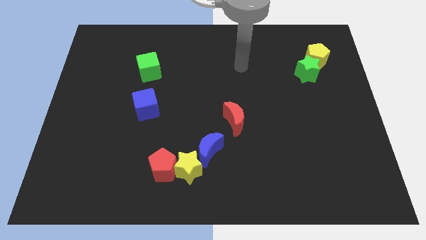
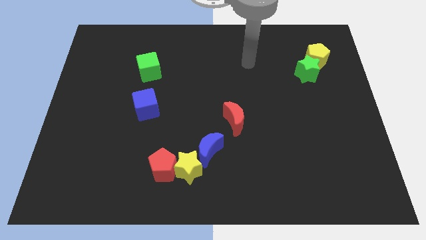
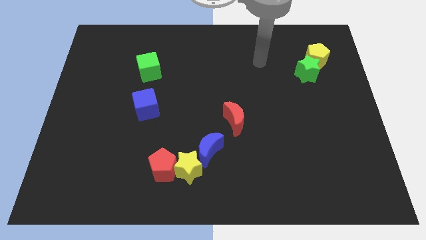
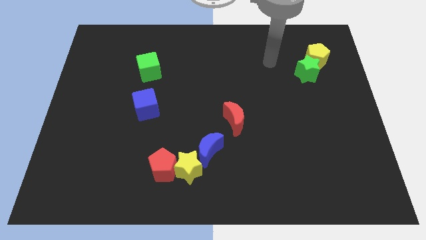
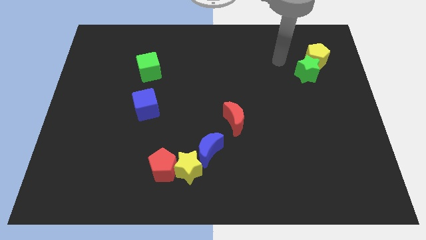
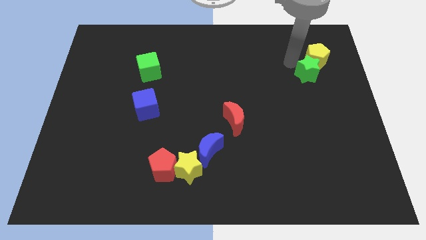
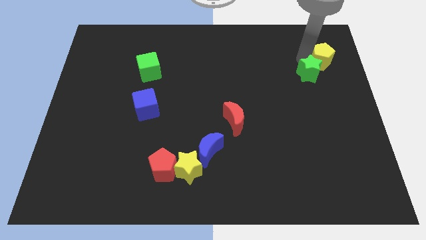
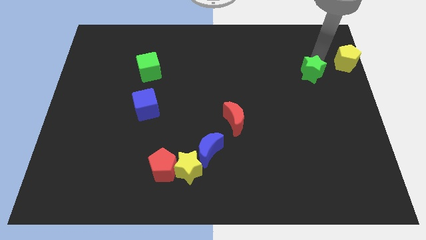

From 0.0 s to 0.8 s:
separate the green star from the yellow pentagon

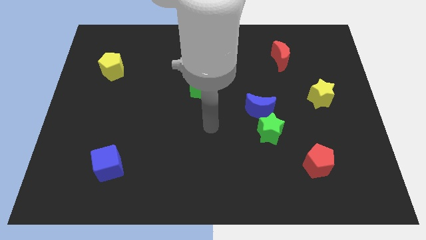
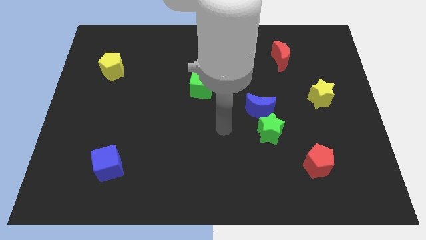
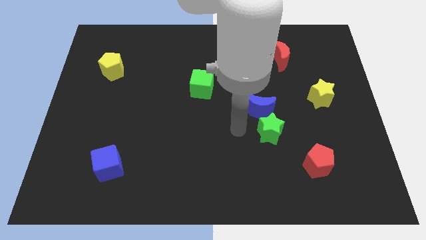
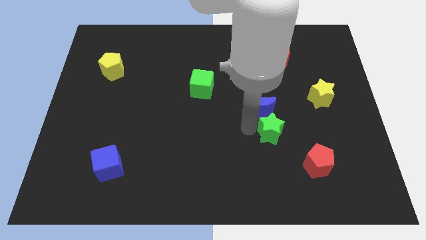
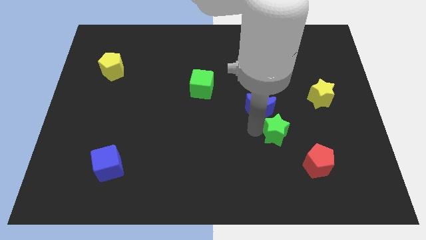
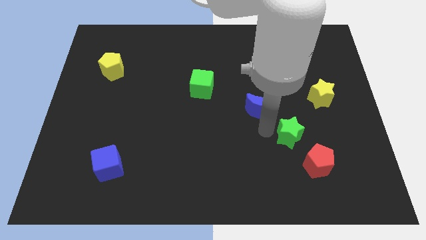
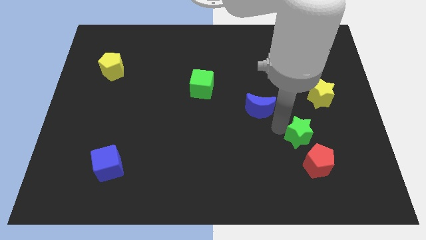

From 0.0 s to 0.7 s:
pull the blue moon apart from the green star

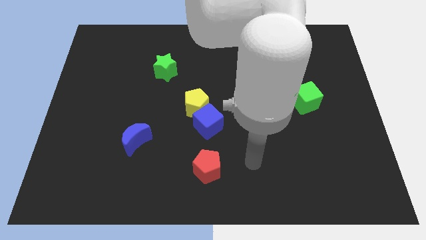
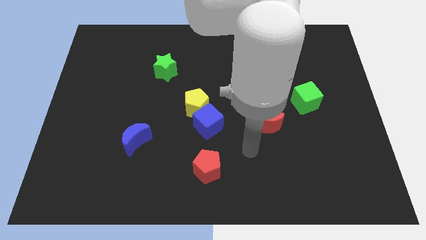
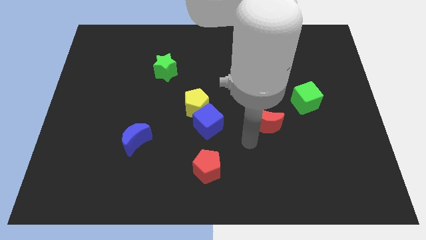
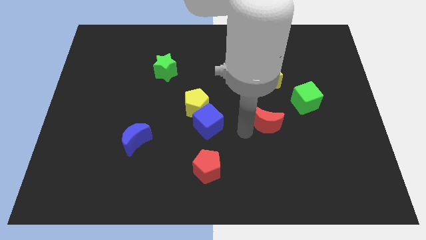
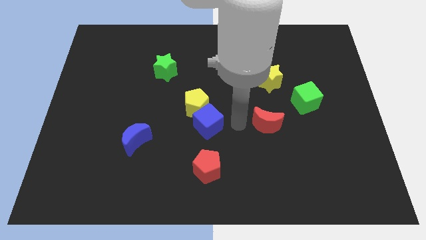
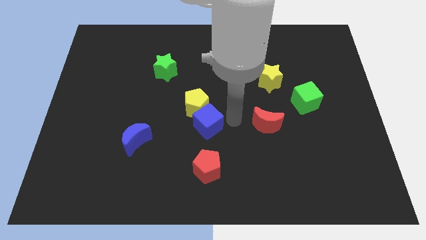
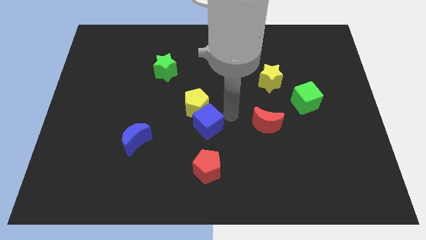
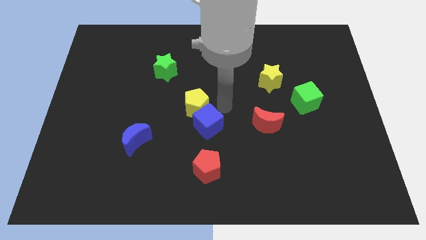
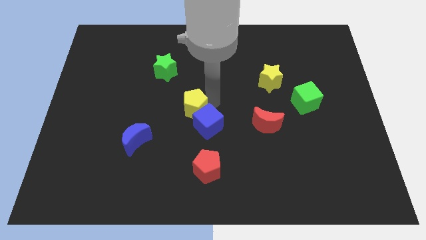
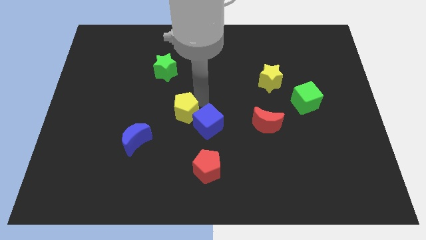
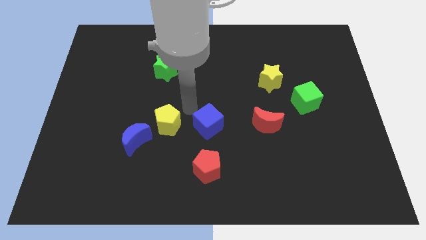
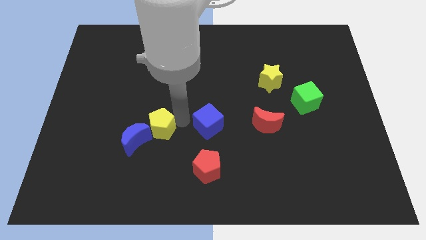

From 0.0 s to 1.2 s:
move the blue cube away from the yellow pentagon

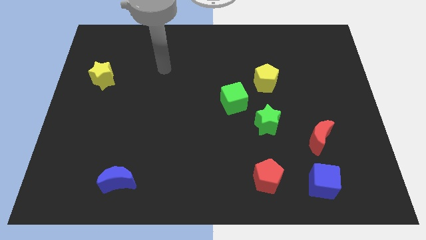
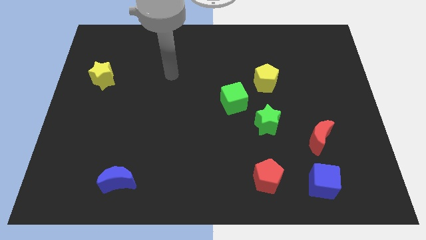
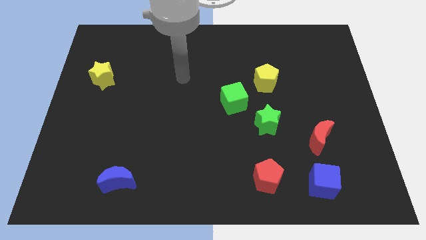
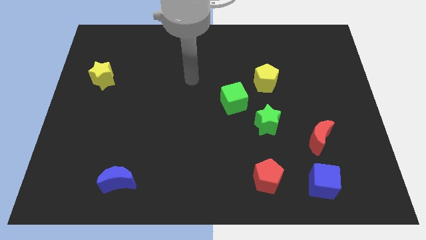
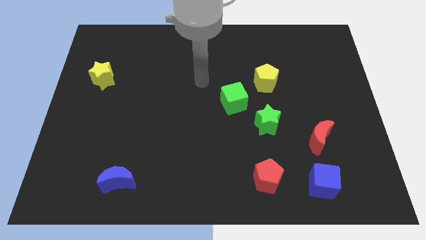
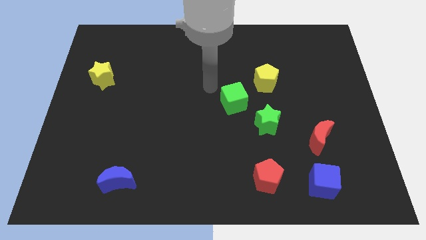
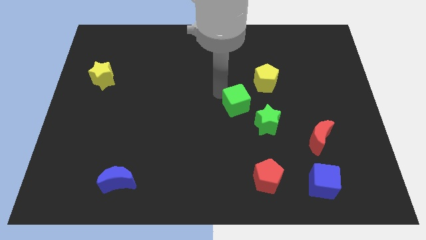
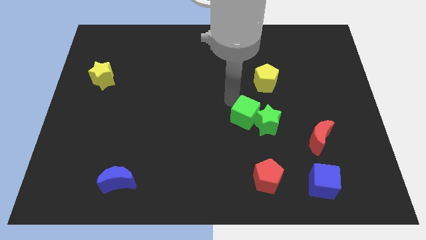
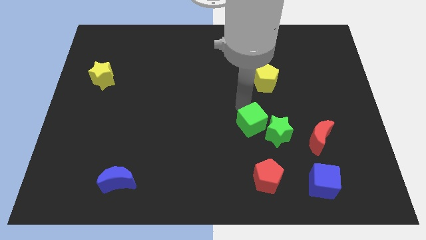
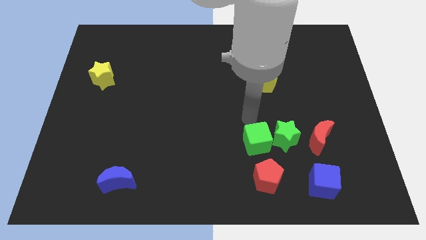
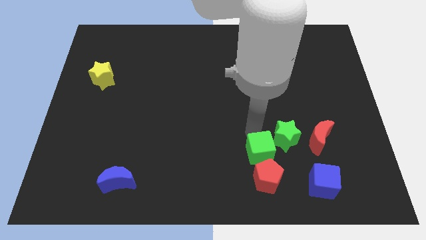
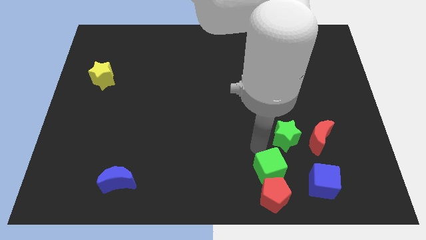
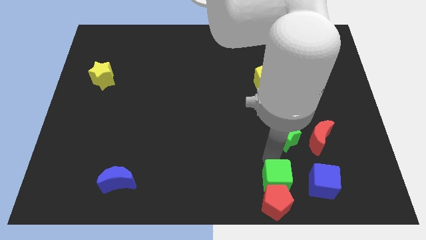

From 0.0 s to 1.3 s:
move the green star away from the green cube

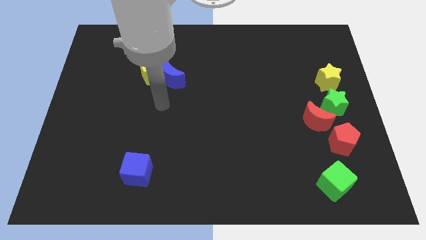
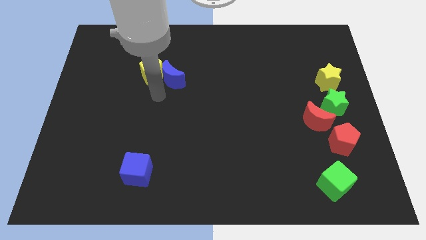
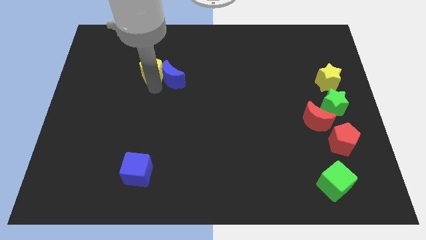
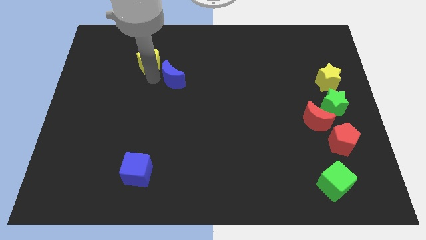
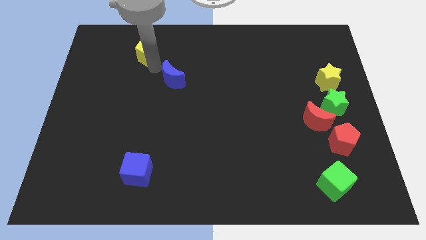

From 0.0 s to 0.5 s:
pull the blue moon apart from the yellow pentagon

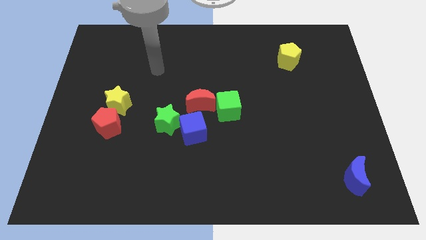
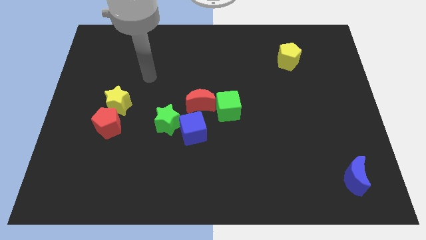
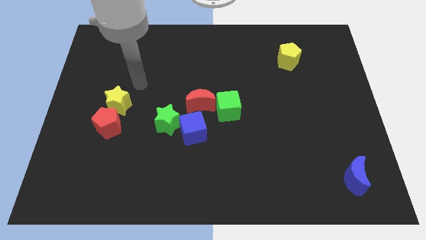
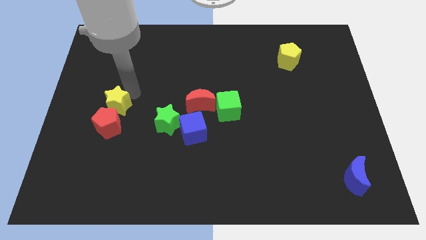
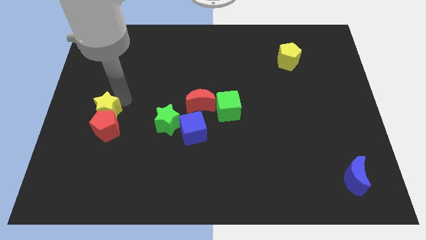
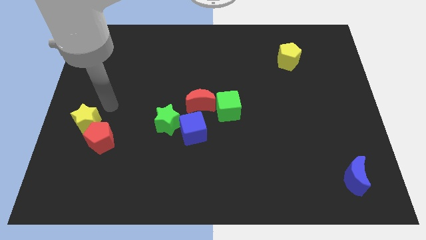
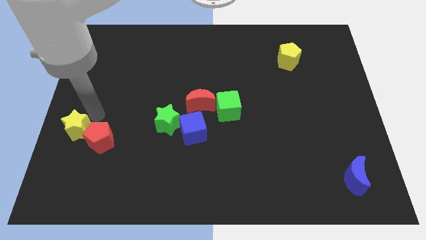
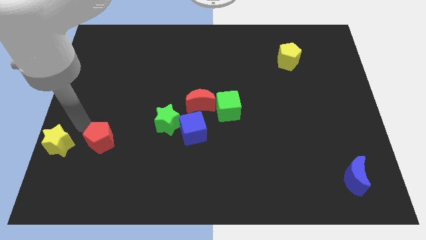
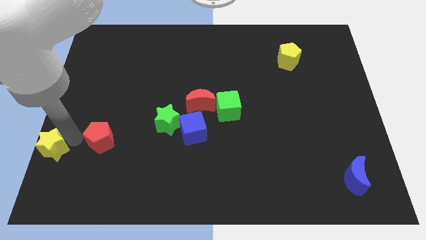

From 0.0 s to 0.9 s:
separate the red pentagon from the yellow star

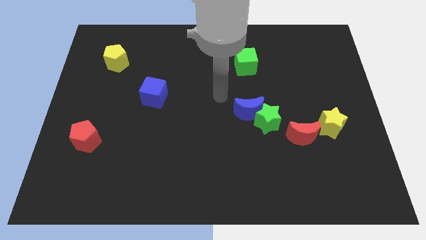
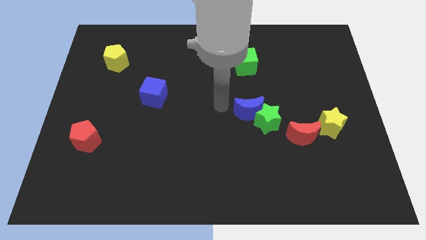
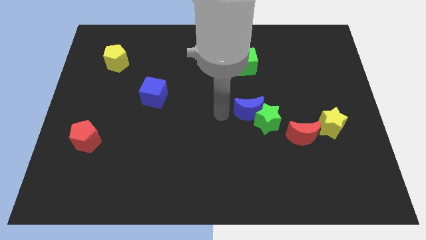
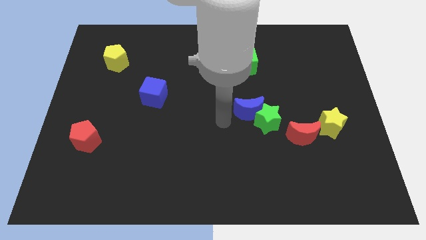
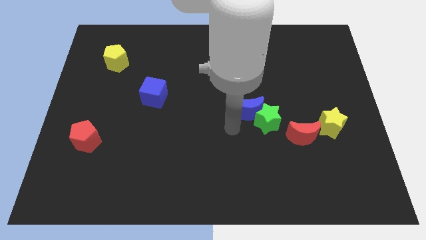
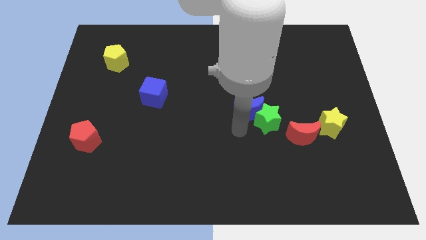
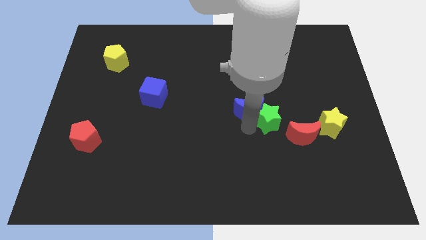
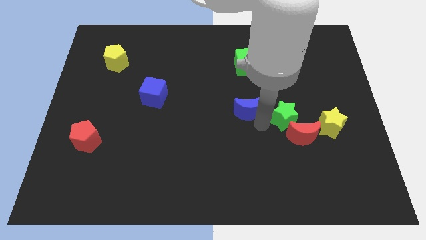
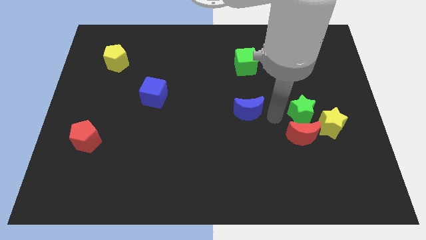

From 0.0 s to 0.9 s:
separate the blue moon from the green star

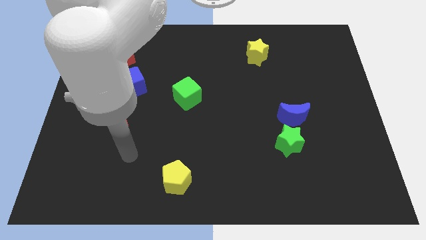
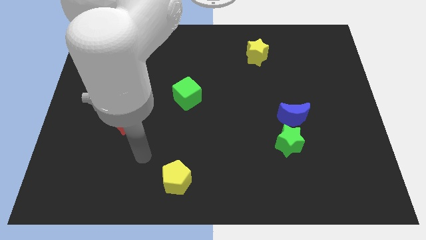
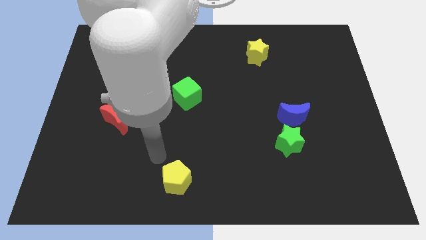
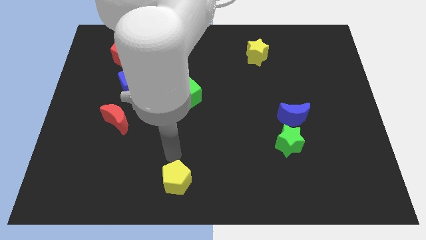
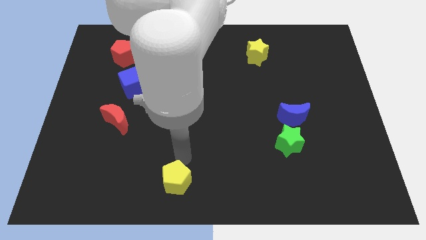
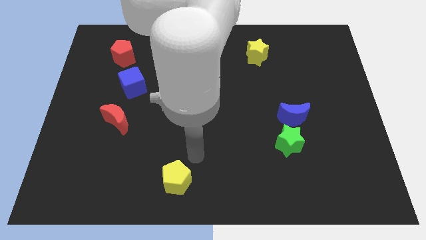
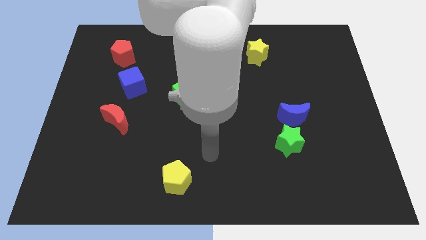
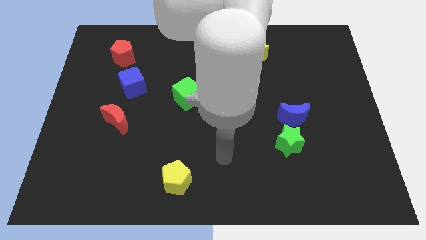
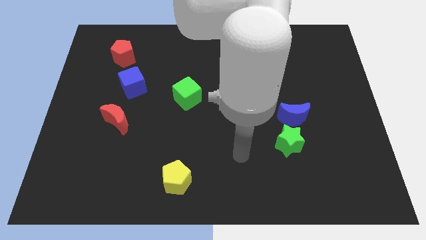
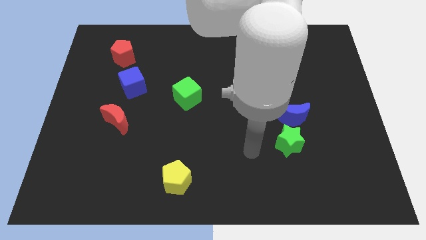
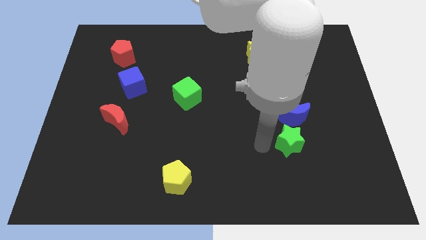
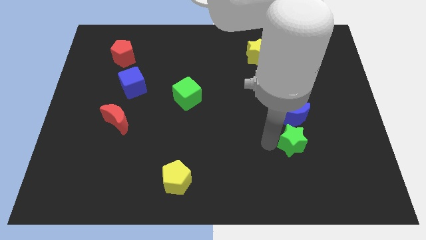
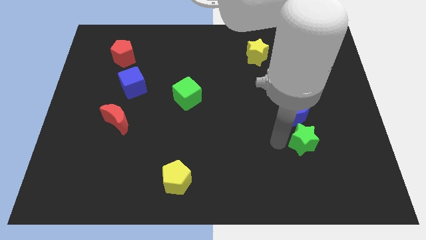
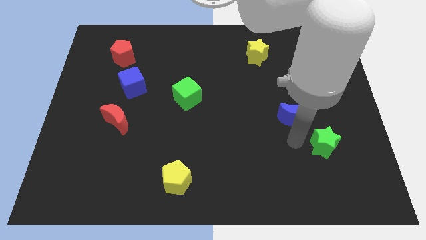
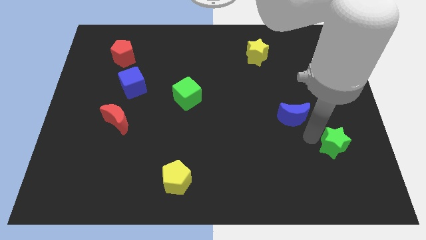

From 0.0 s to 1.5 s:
move the blue moon away from the green star

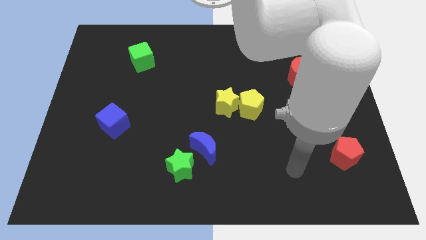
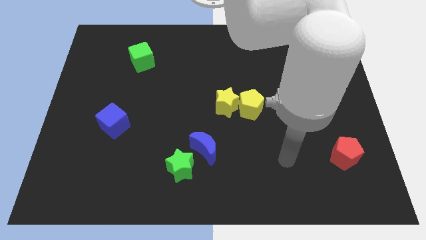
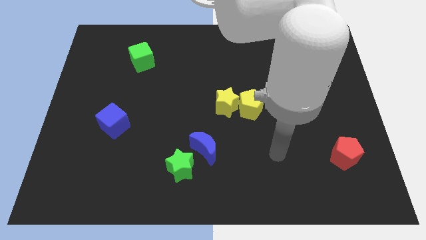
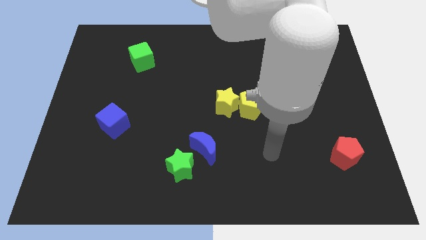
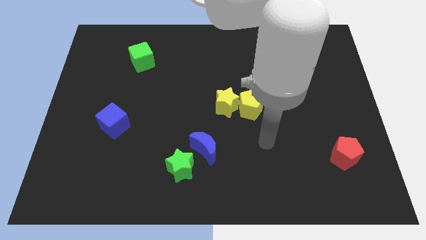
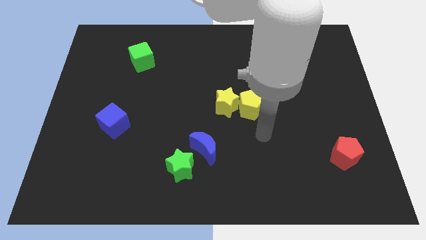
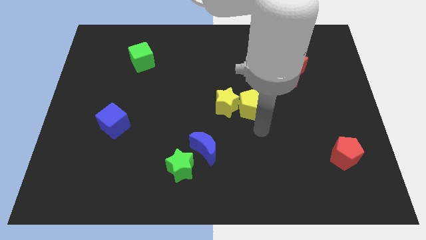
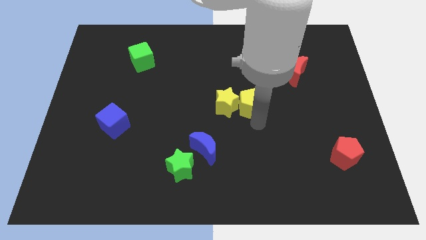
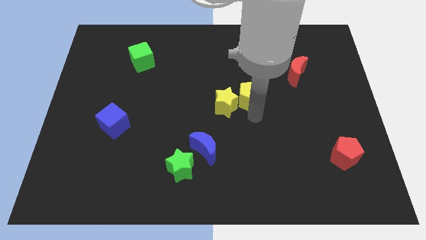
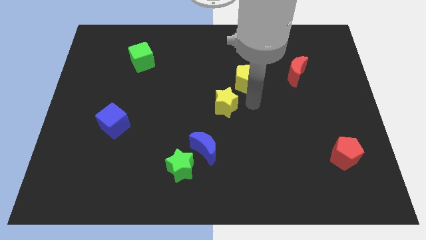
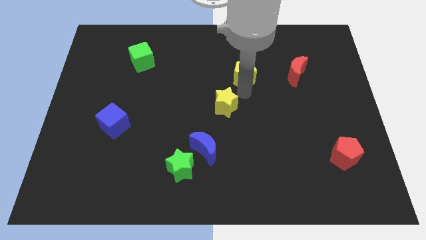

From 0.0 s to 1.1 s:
separate the yellow star from the yellow pentagon

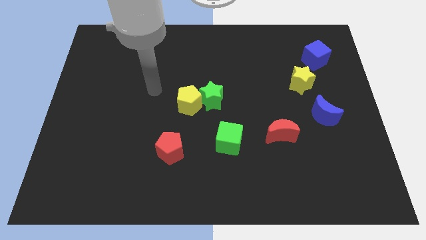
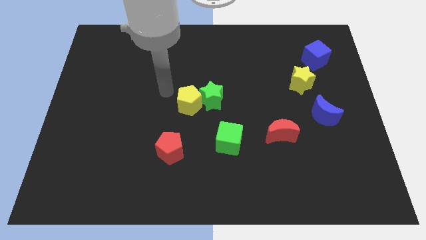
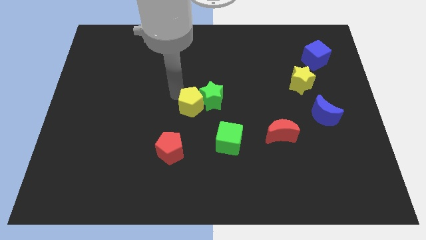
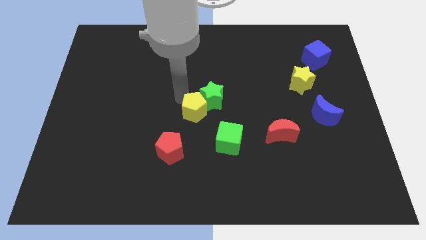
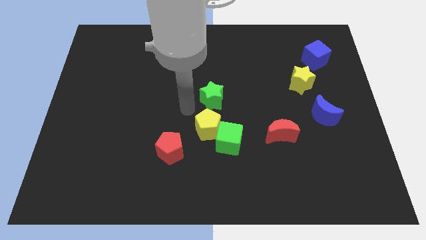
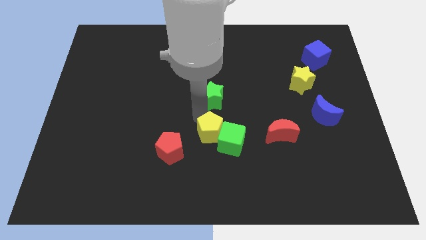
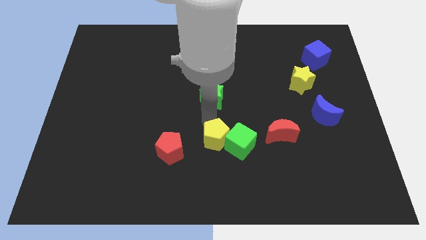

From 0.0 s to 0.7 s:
pull the green star apart from the yellow pentagon
